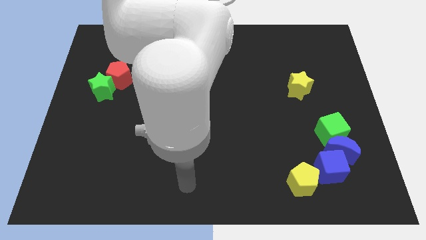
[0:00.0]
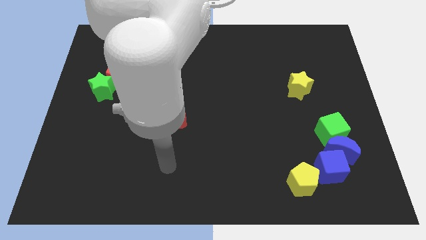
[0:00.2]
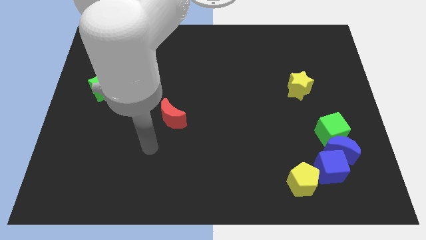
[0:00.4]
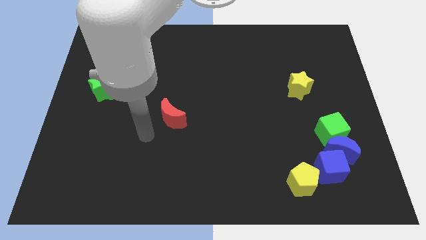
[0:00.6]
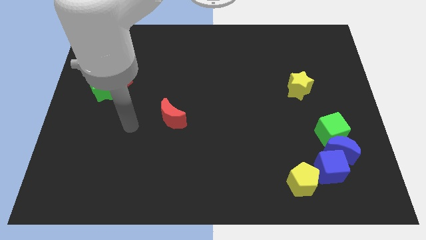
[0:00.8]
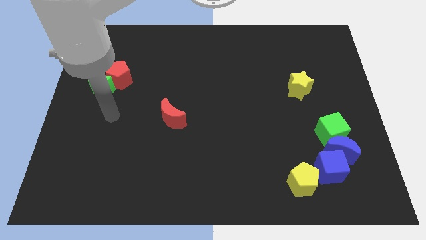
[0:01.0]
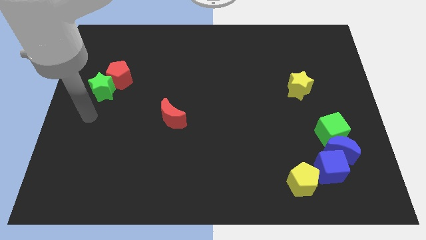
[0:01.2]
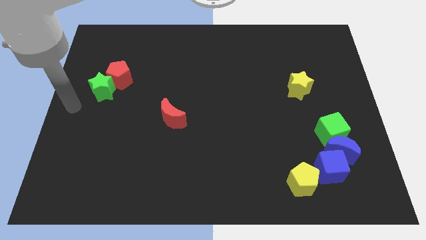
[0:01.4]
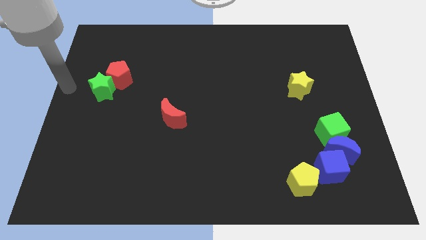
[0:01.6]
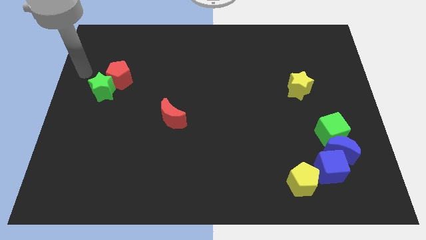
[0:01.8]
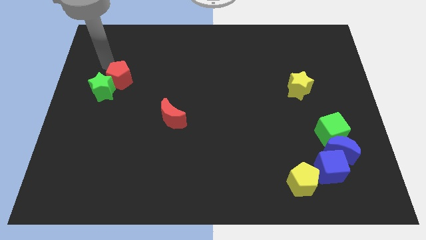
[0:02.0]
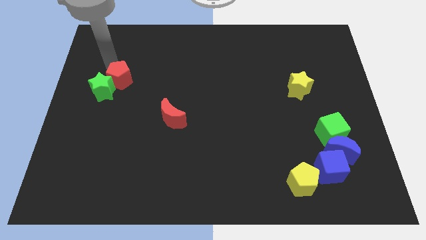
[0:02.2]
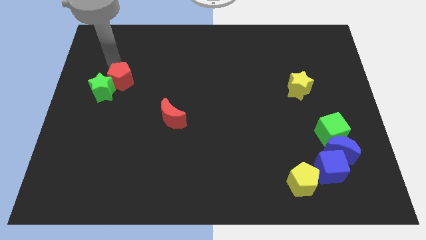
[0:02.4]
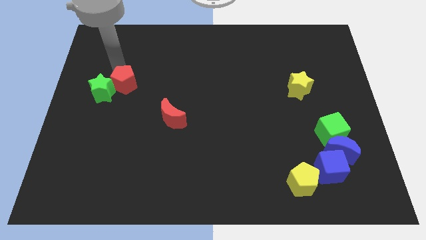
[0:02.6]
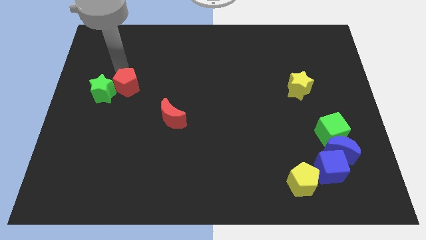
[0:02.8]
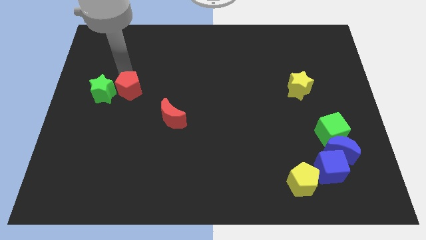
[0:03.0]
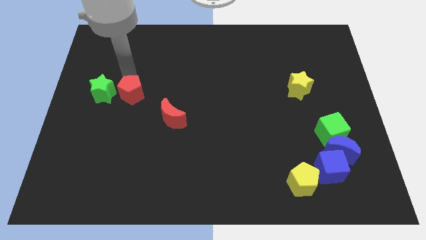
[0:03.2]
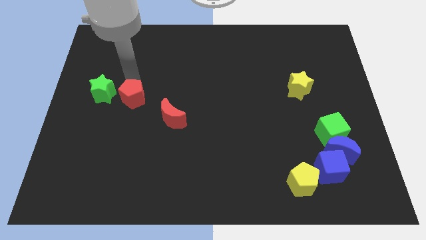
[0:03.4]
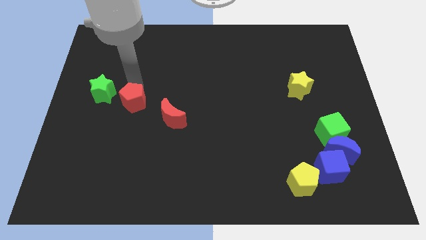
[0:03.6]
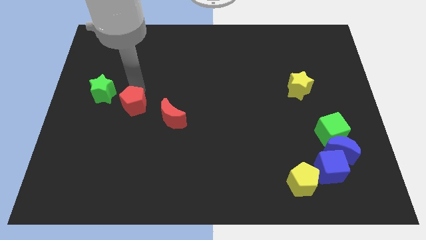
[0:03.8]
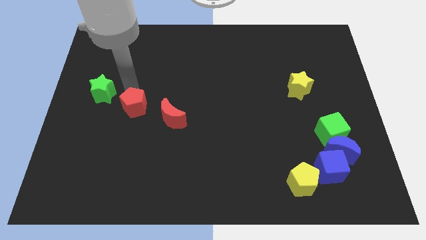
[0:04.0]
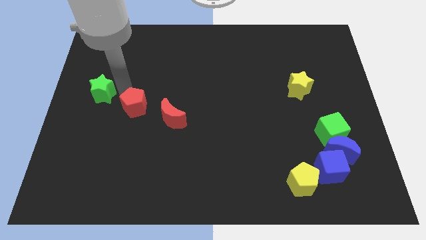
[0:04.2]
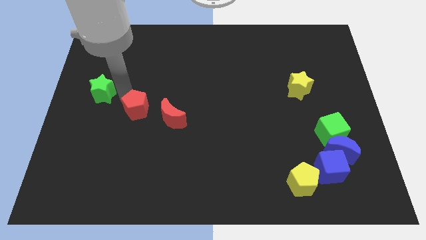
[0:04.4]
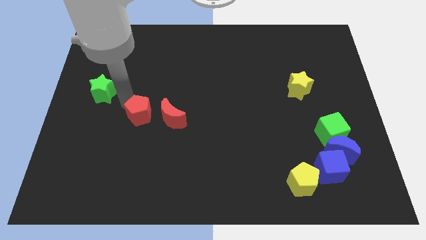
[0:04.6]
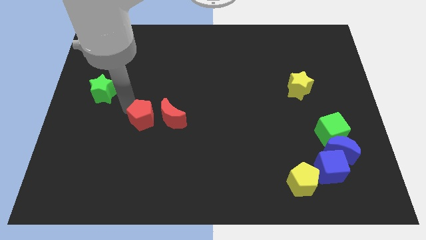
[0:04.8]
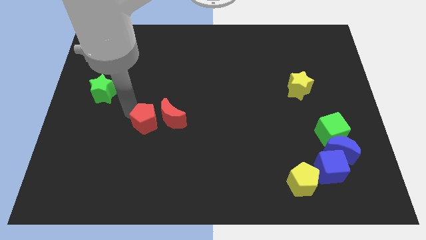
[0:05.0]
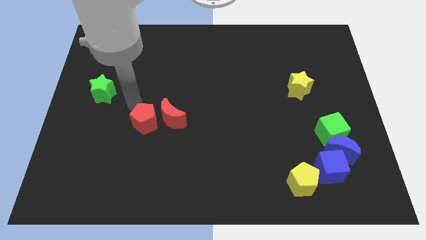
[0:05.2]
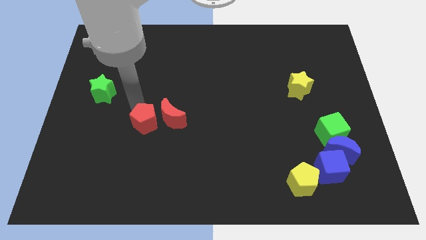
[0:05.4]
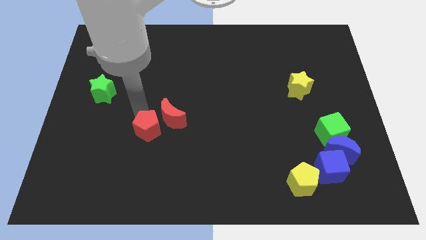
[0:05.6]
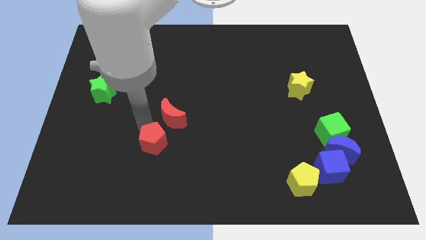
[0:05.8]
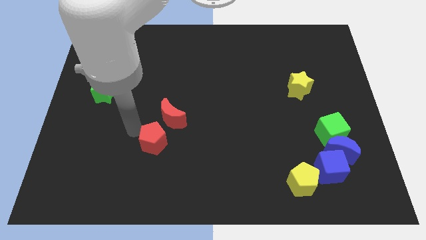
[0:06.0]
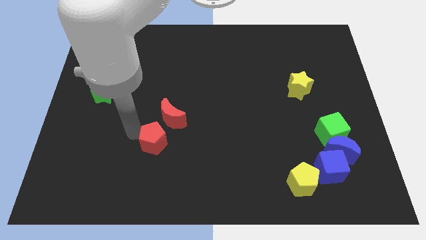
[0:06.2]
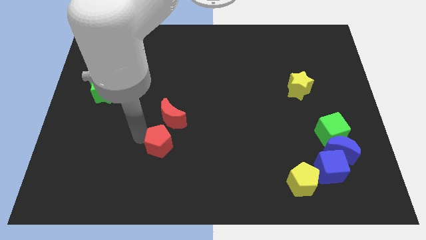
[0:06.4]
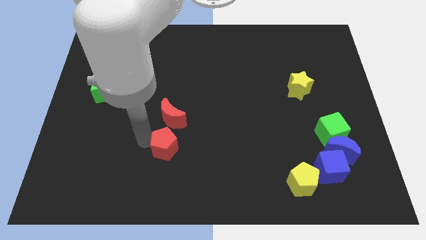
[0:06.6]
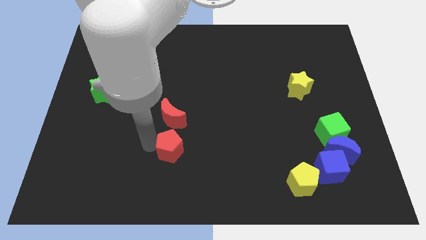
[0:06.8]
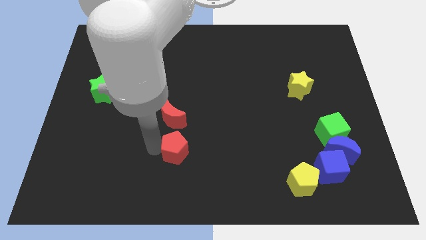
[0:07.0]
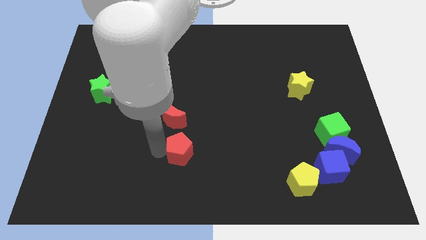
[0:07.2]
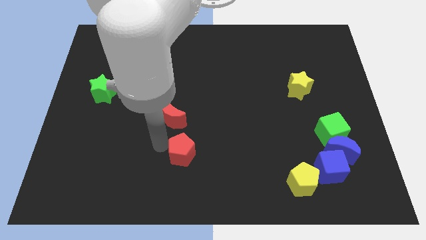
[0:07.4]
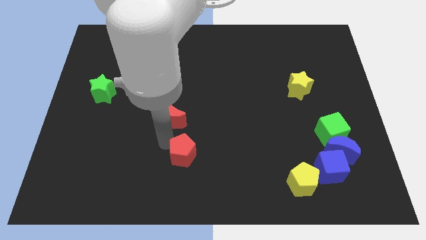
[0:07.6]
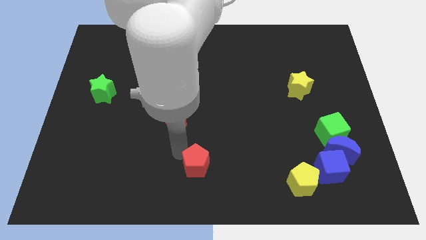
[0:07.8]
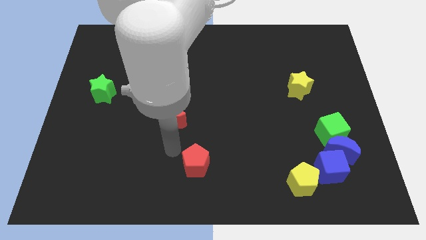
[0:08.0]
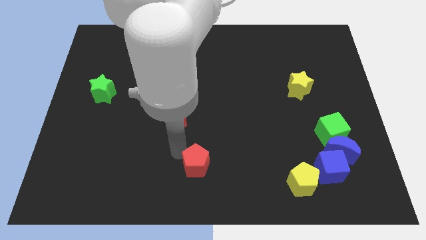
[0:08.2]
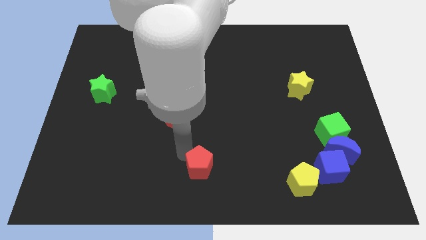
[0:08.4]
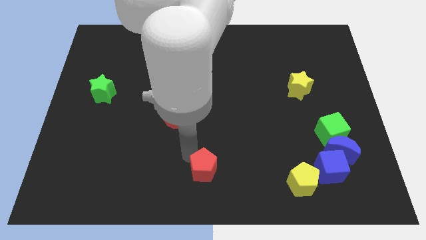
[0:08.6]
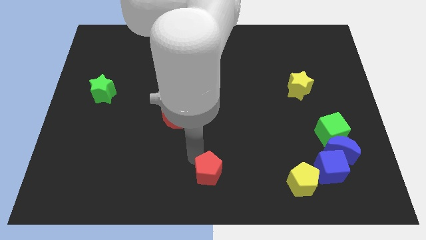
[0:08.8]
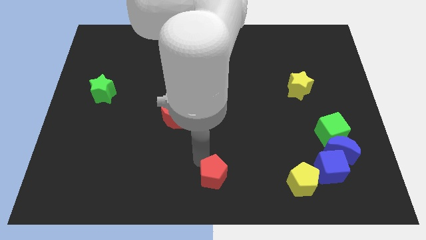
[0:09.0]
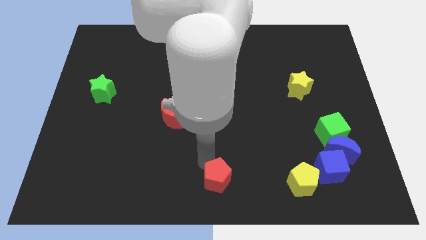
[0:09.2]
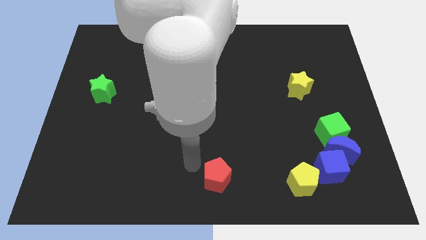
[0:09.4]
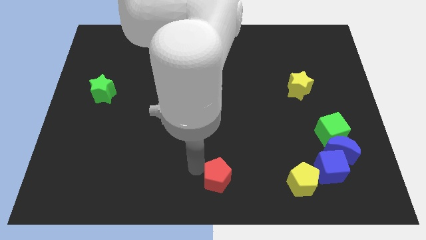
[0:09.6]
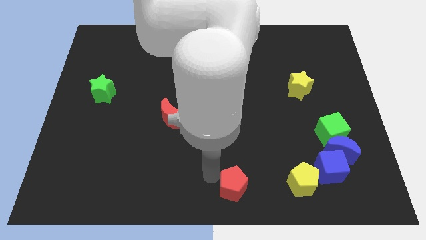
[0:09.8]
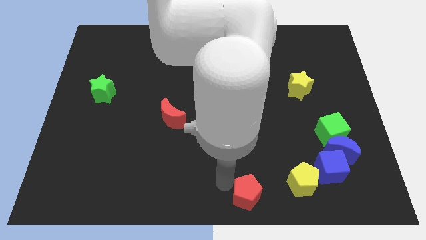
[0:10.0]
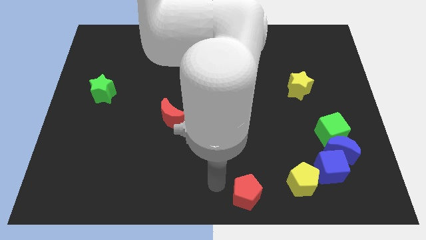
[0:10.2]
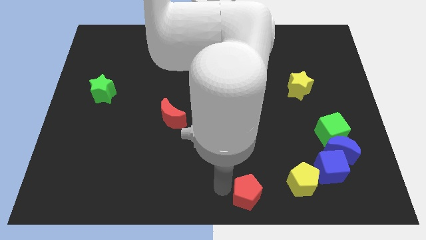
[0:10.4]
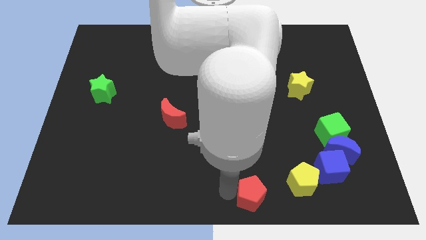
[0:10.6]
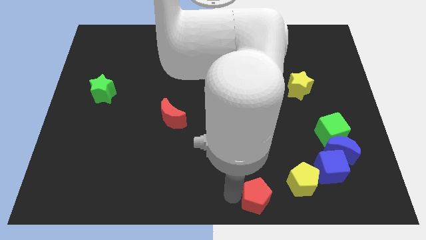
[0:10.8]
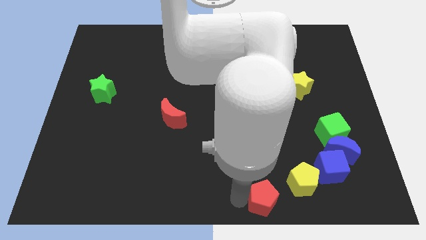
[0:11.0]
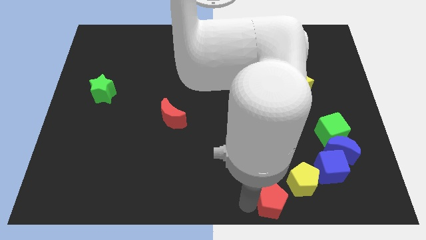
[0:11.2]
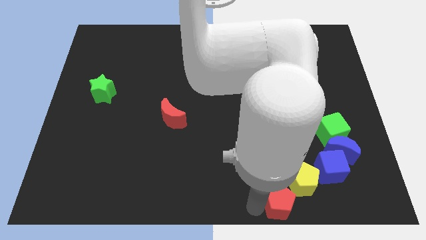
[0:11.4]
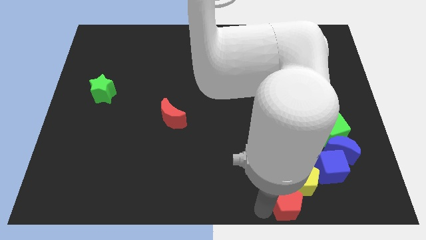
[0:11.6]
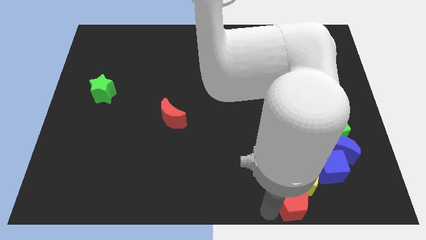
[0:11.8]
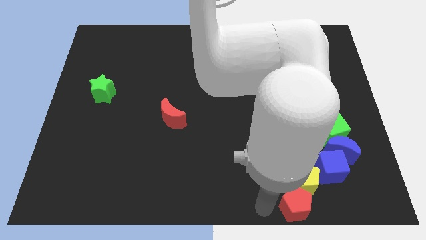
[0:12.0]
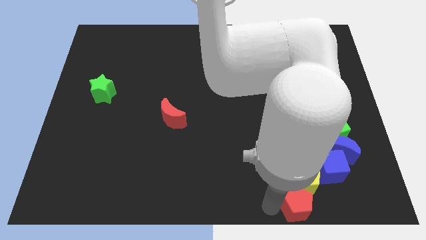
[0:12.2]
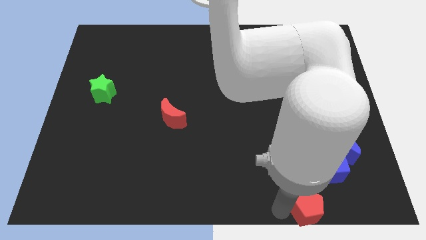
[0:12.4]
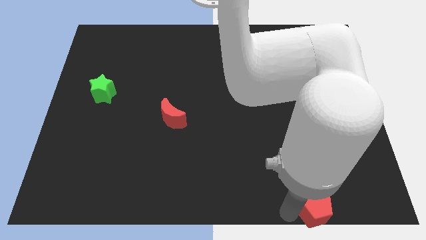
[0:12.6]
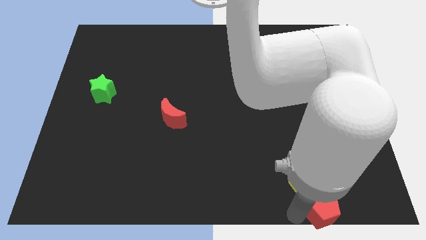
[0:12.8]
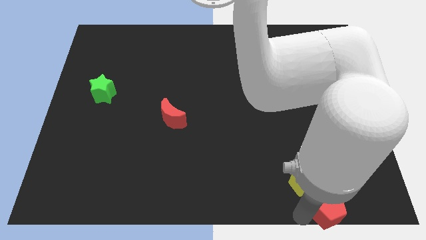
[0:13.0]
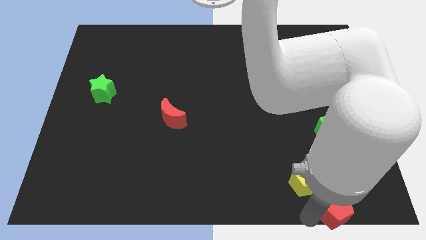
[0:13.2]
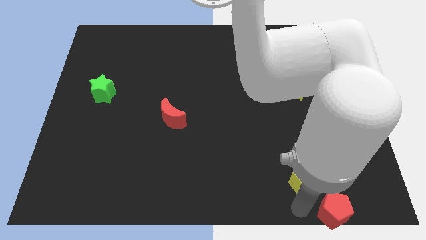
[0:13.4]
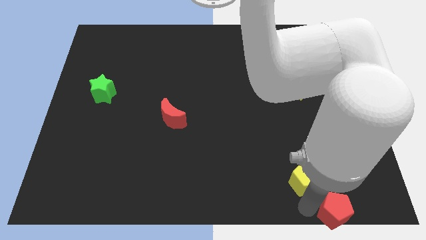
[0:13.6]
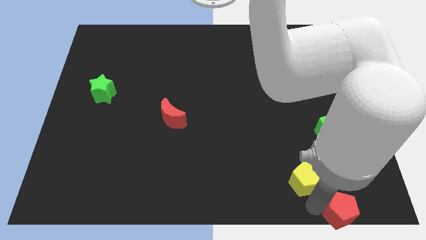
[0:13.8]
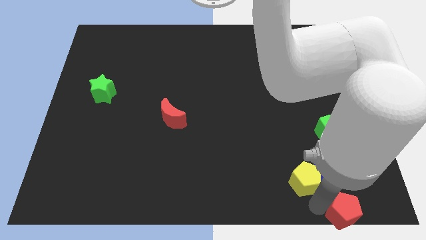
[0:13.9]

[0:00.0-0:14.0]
slide the red pentagon to the bottom right of the board
